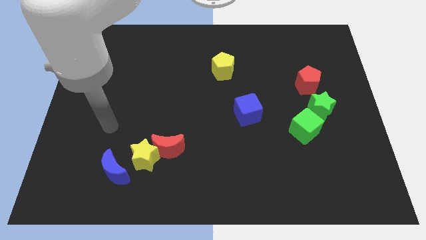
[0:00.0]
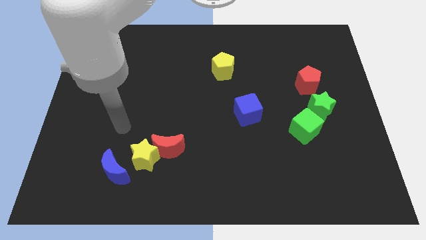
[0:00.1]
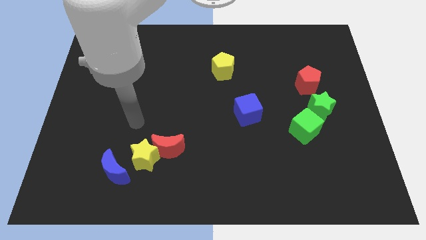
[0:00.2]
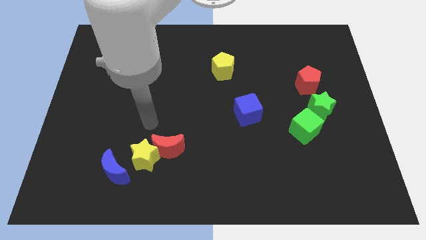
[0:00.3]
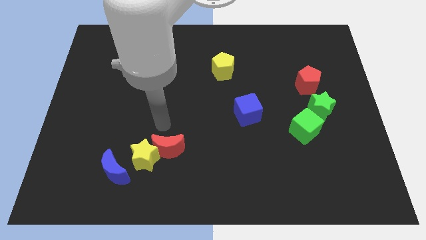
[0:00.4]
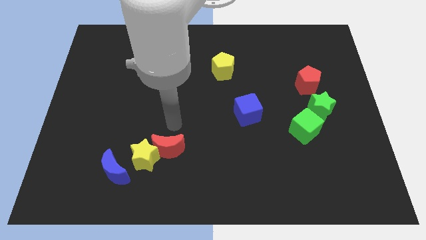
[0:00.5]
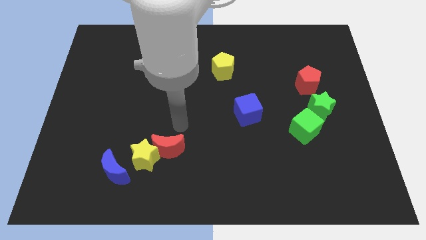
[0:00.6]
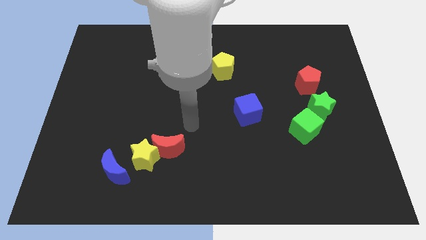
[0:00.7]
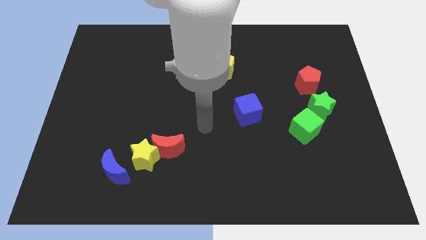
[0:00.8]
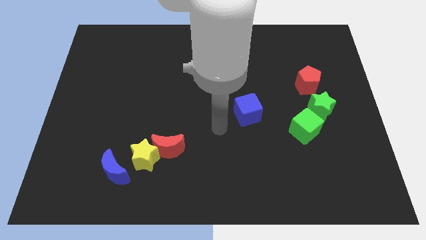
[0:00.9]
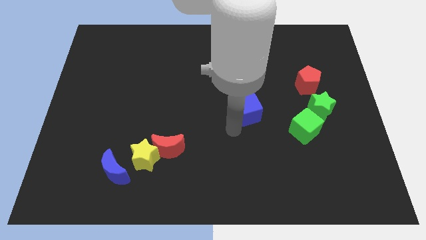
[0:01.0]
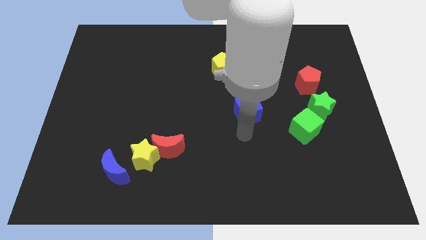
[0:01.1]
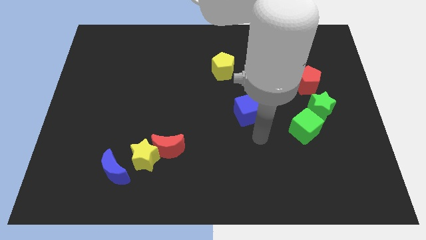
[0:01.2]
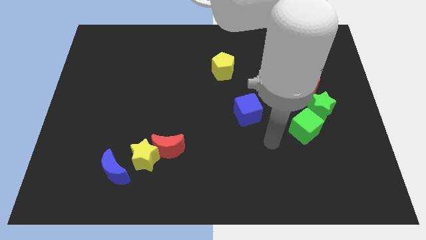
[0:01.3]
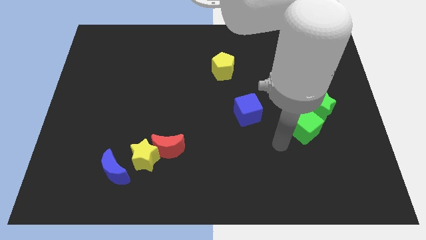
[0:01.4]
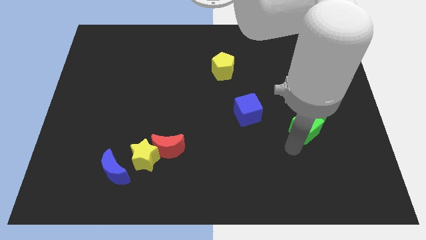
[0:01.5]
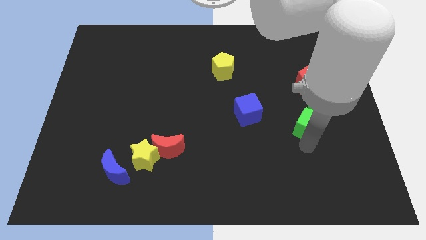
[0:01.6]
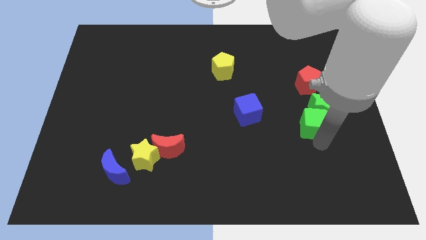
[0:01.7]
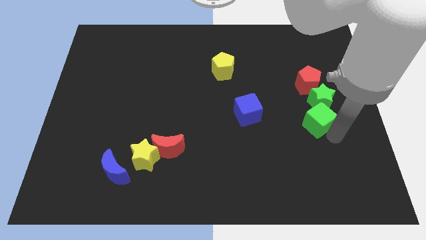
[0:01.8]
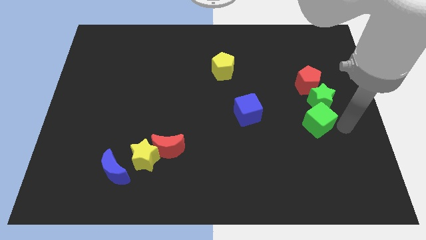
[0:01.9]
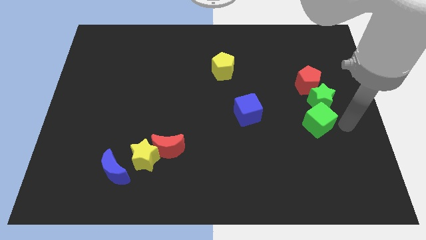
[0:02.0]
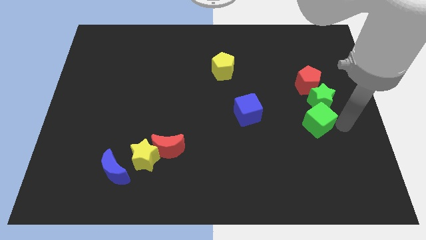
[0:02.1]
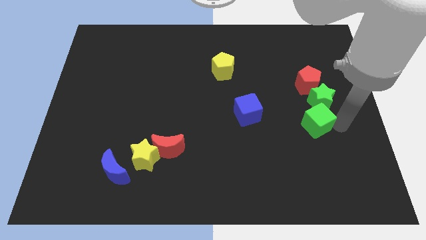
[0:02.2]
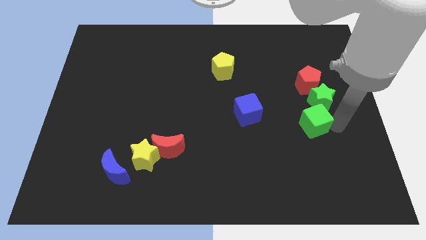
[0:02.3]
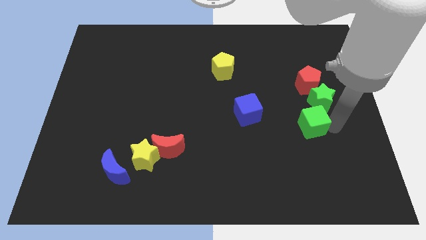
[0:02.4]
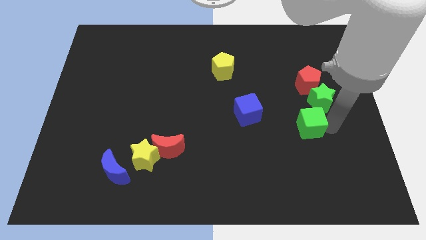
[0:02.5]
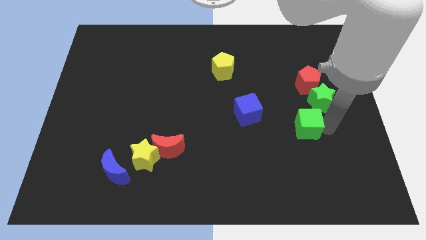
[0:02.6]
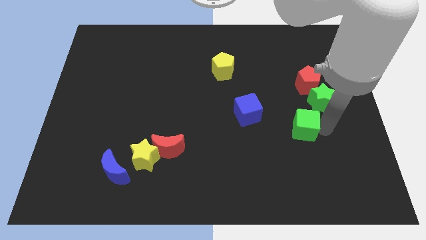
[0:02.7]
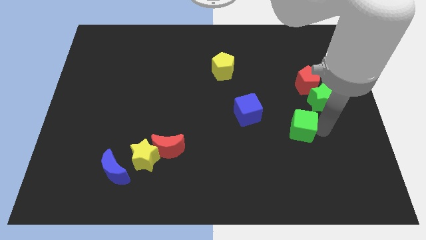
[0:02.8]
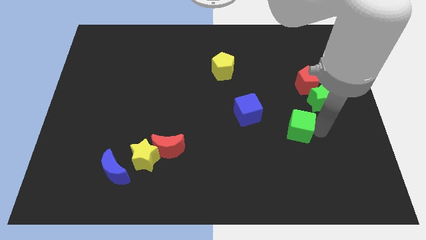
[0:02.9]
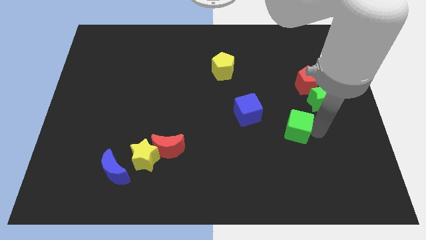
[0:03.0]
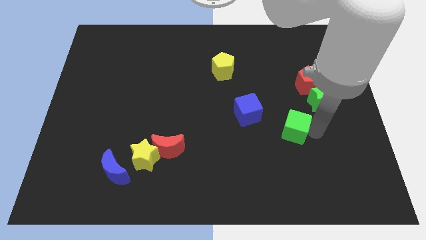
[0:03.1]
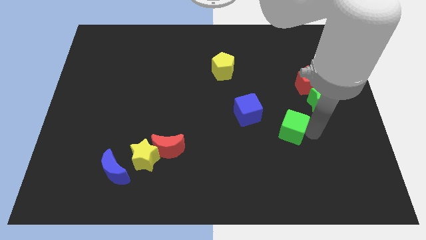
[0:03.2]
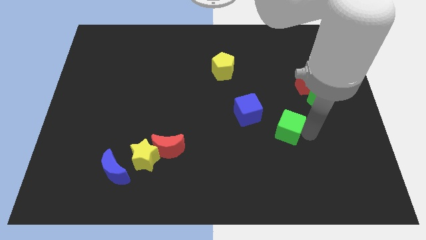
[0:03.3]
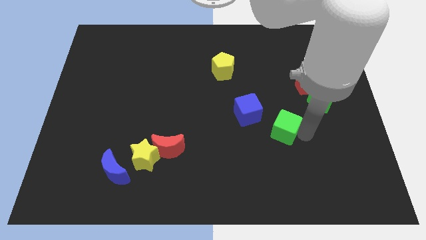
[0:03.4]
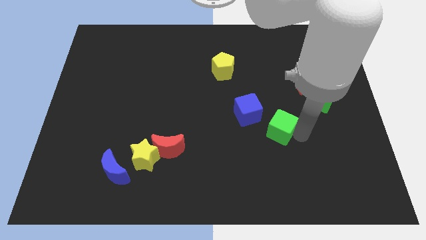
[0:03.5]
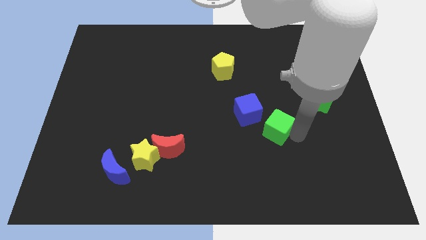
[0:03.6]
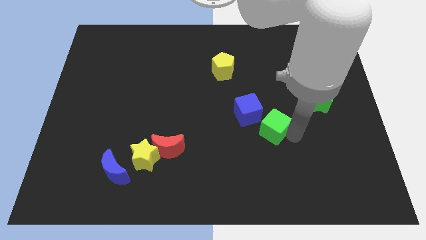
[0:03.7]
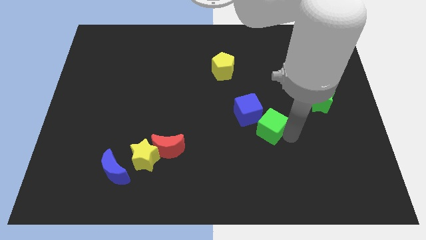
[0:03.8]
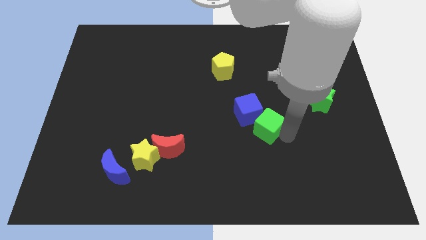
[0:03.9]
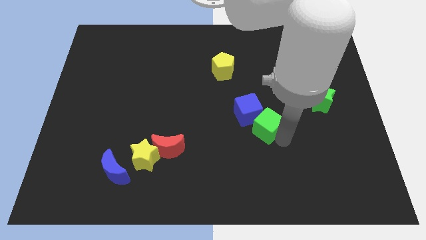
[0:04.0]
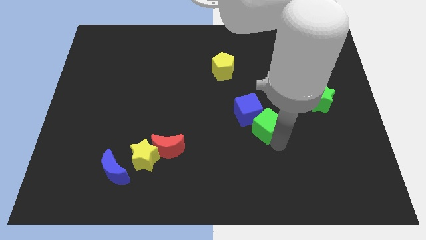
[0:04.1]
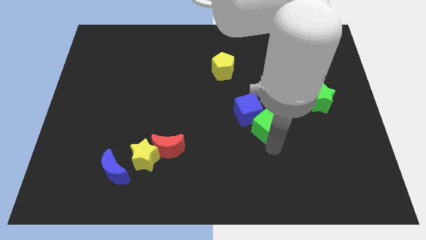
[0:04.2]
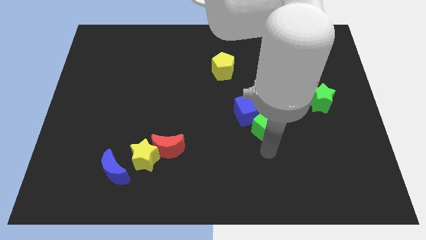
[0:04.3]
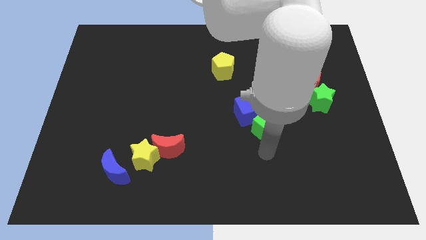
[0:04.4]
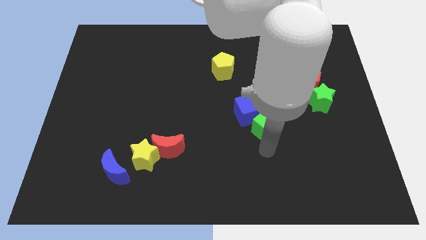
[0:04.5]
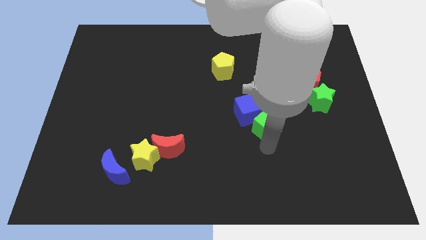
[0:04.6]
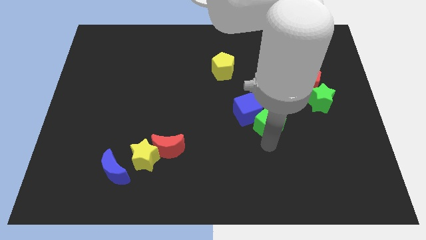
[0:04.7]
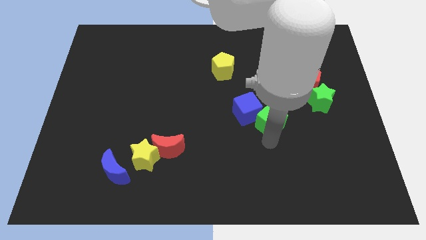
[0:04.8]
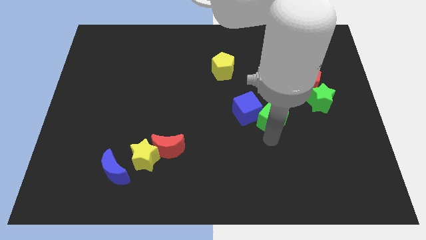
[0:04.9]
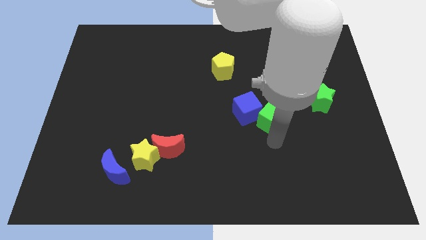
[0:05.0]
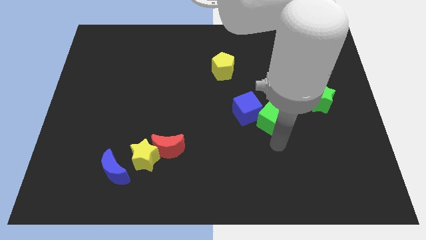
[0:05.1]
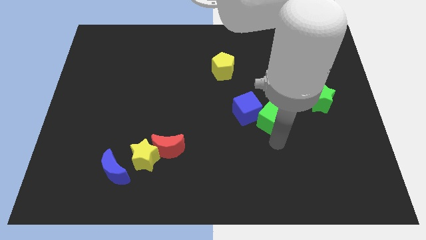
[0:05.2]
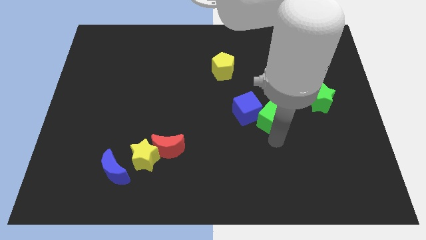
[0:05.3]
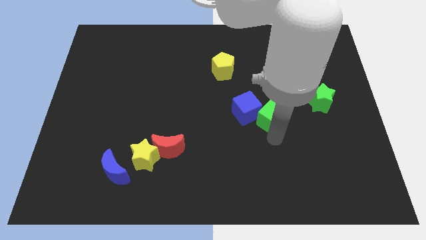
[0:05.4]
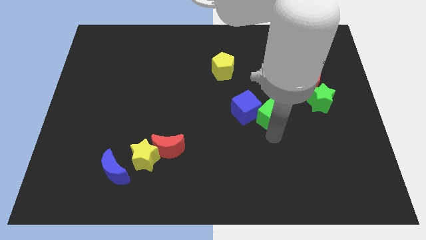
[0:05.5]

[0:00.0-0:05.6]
slightly slide the green cube up and to the left diagonally

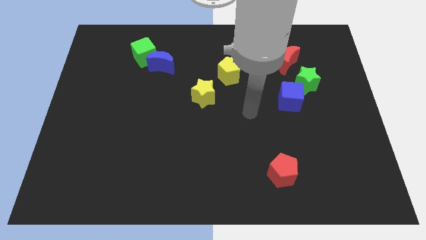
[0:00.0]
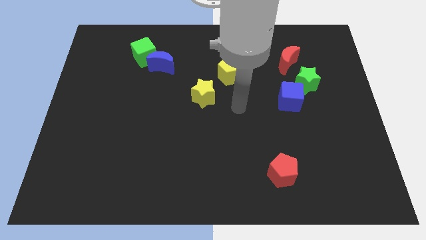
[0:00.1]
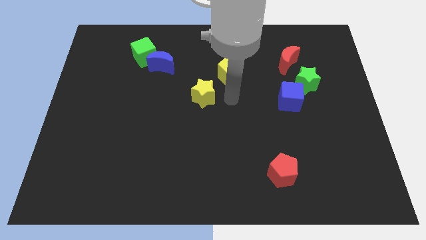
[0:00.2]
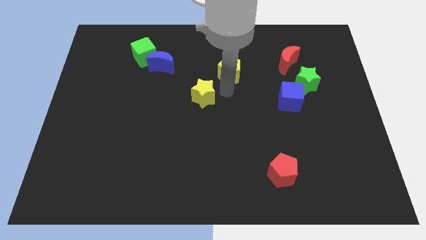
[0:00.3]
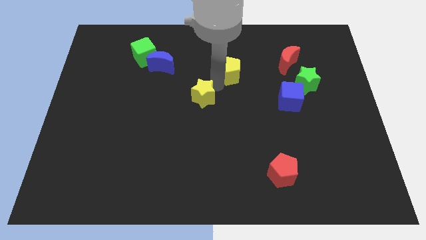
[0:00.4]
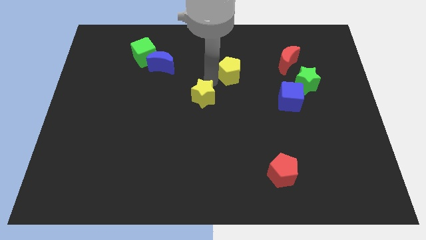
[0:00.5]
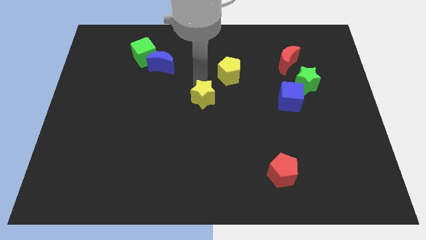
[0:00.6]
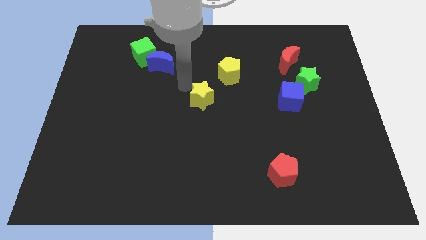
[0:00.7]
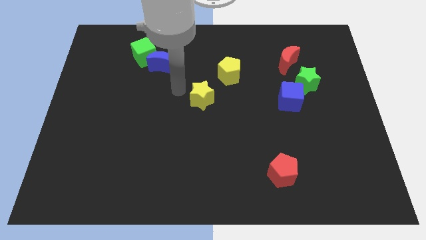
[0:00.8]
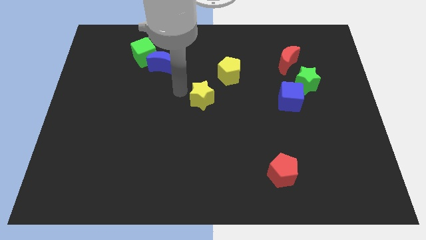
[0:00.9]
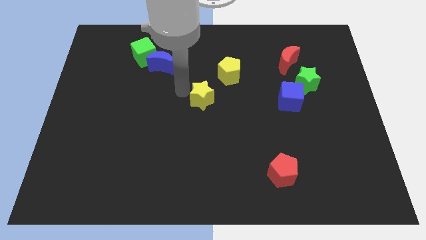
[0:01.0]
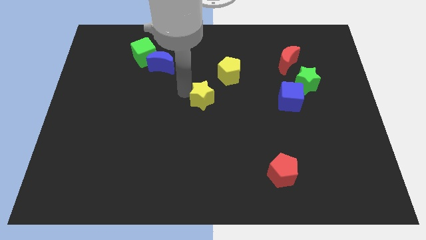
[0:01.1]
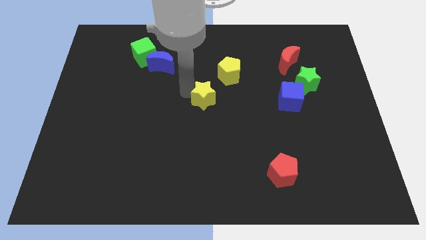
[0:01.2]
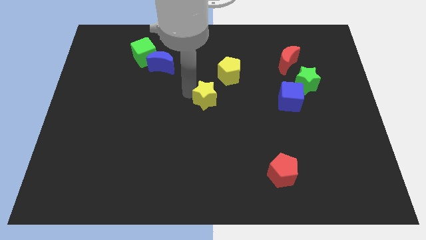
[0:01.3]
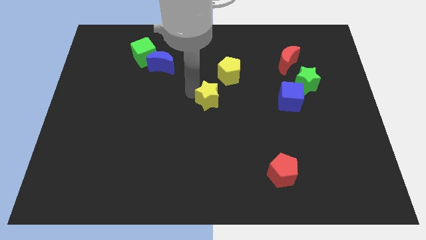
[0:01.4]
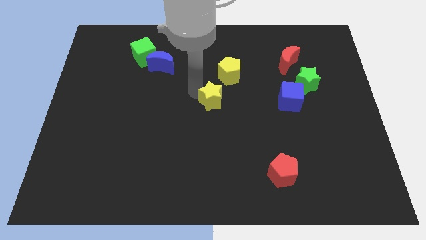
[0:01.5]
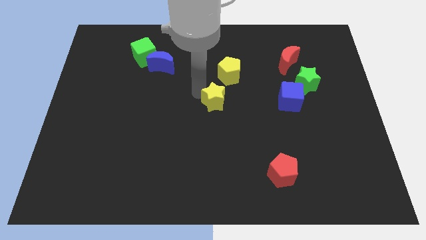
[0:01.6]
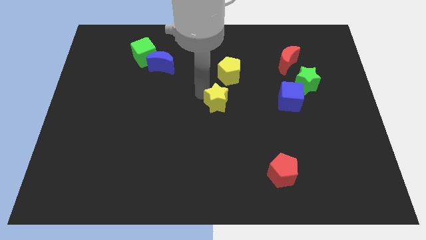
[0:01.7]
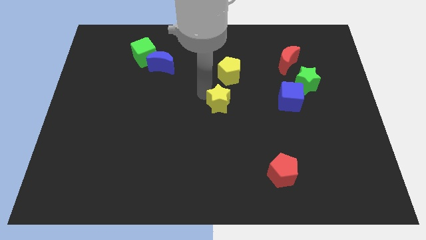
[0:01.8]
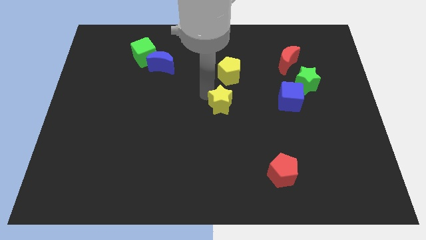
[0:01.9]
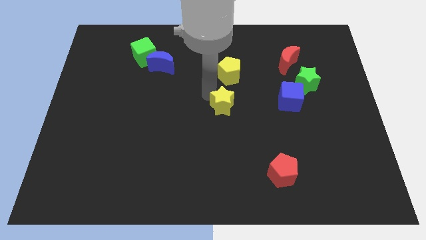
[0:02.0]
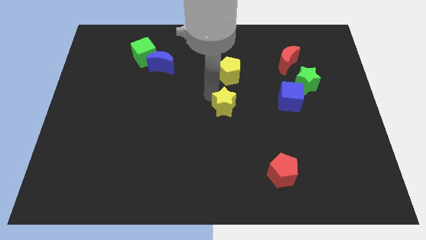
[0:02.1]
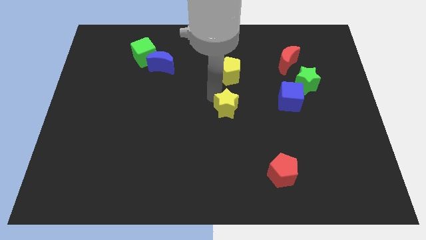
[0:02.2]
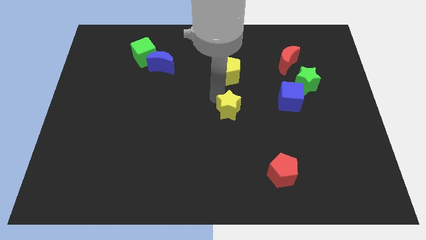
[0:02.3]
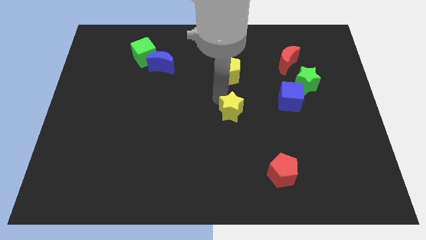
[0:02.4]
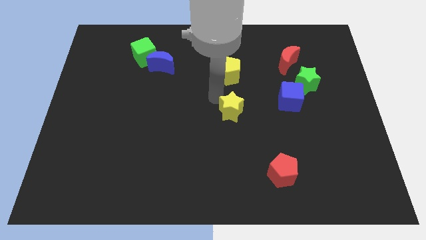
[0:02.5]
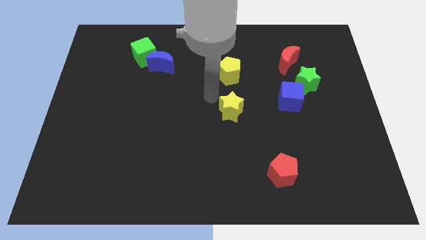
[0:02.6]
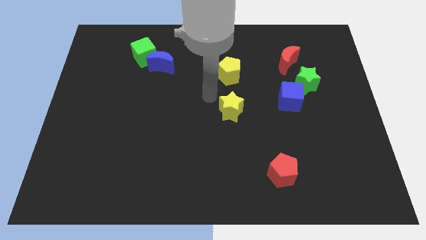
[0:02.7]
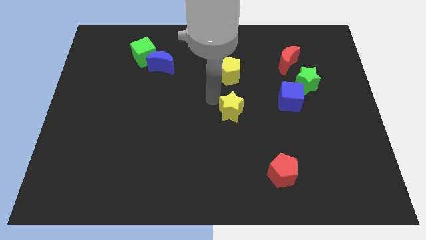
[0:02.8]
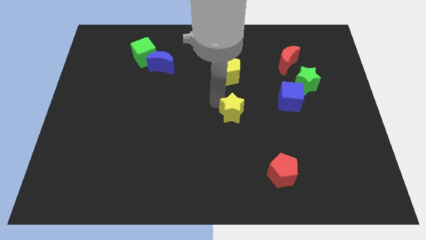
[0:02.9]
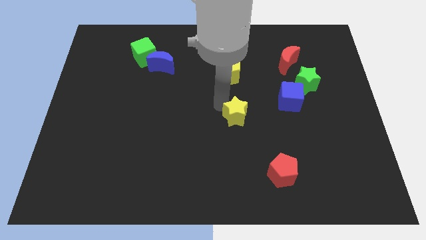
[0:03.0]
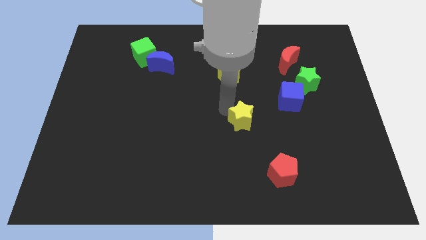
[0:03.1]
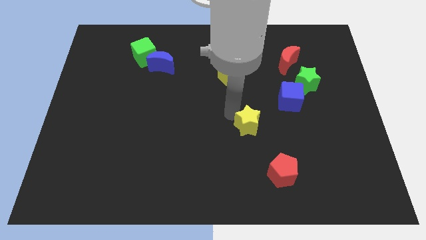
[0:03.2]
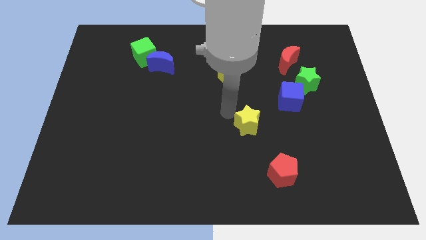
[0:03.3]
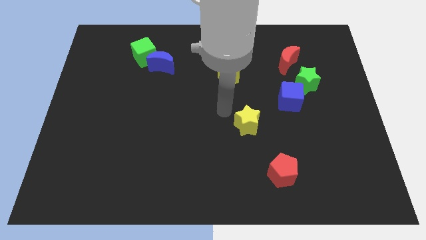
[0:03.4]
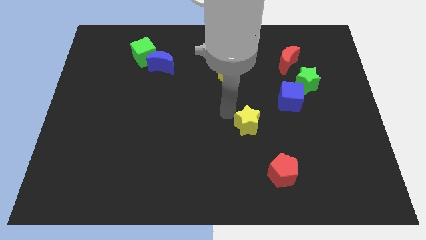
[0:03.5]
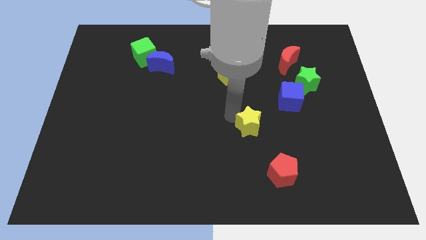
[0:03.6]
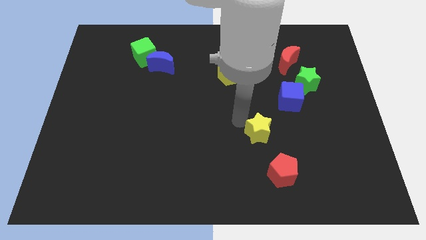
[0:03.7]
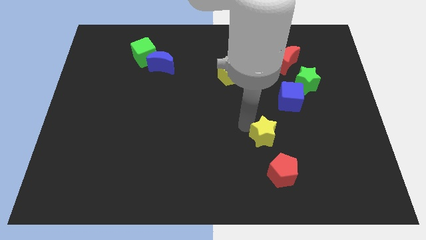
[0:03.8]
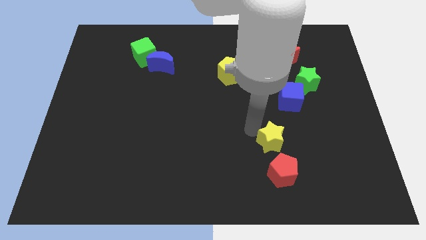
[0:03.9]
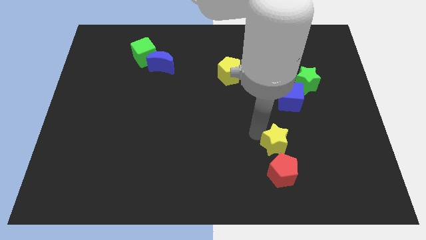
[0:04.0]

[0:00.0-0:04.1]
move the yellow star diagonally down and right
